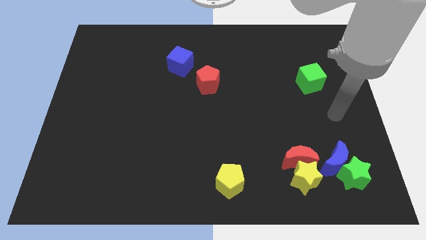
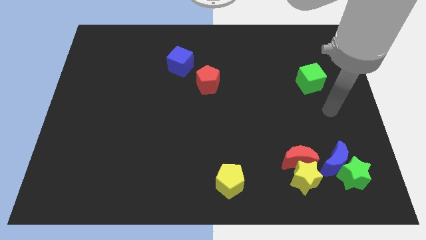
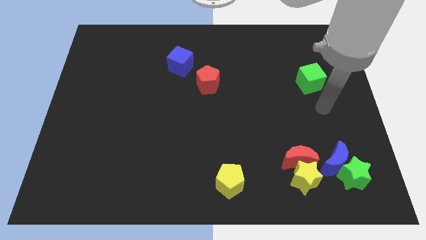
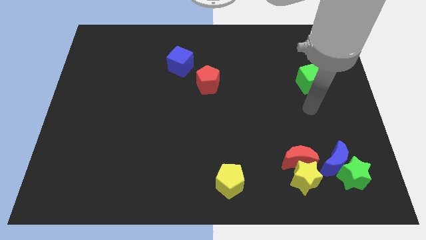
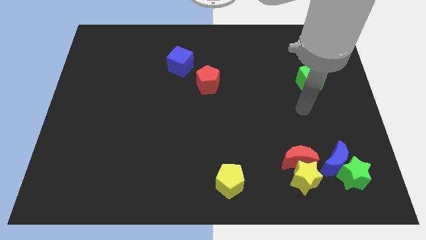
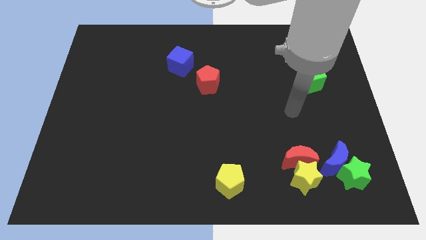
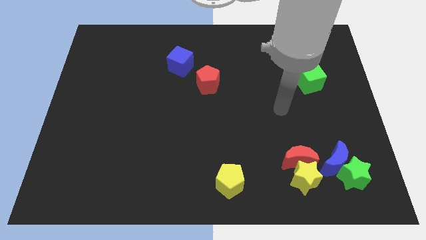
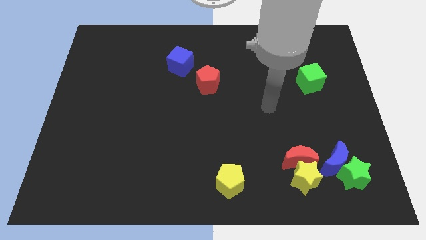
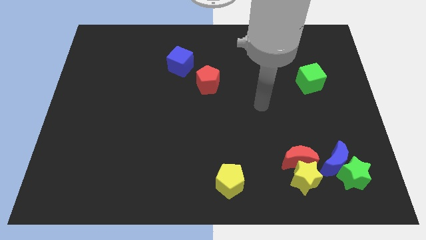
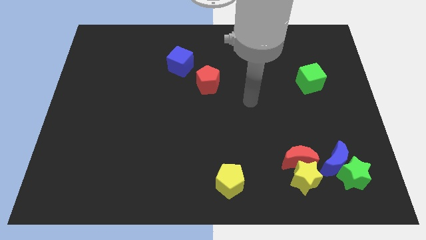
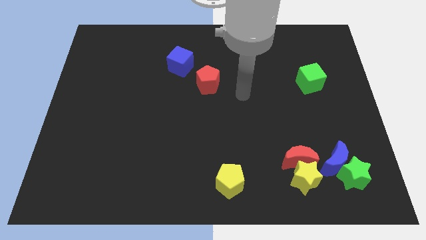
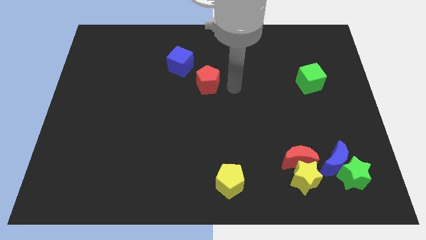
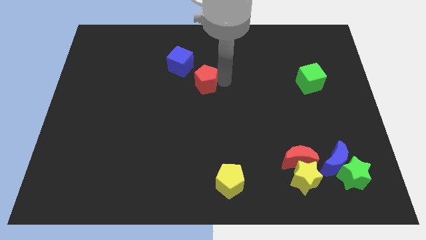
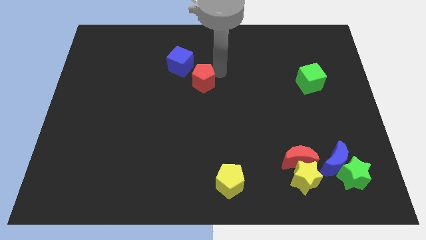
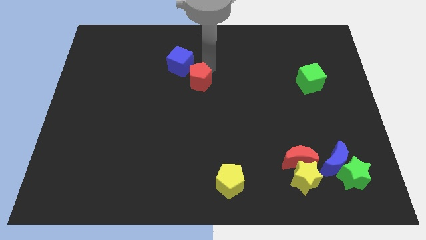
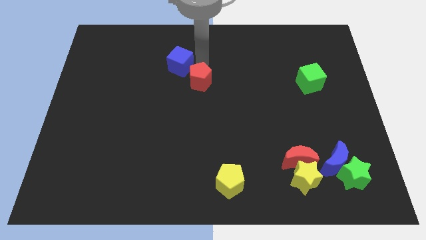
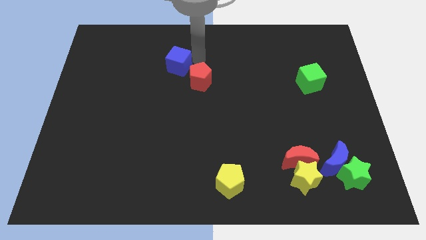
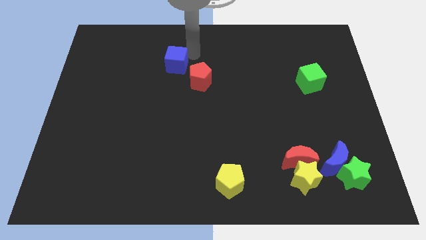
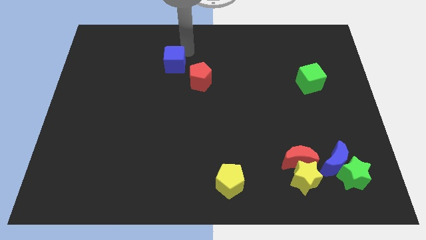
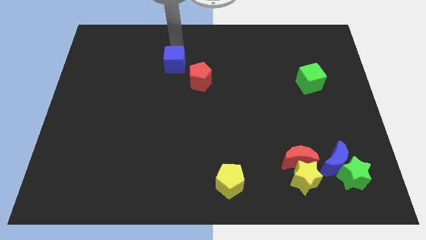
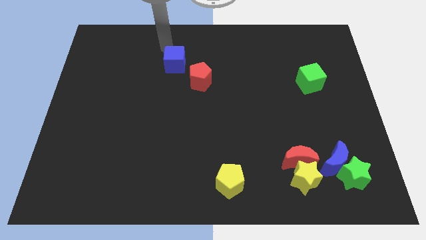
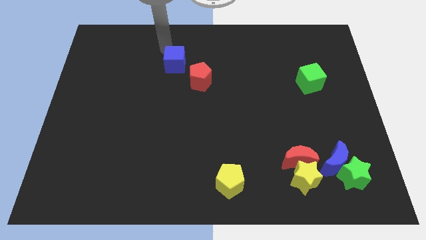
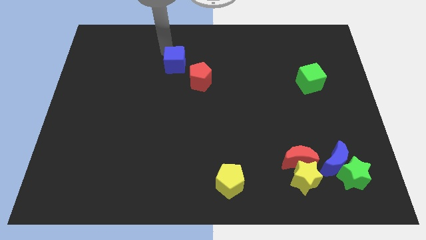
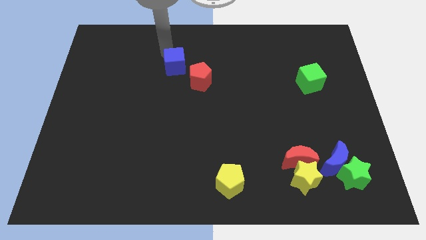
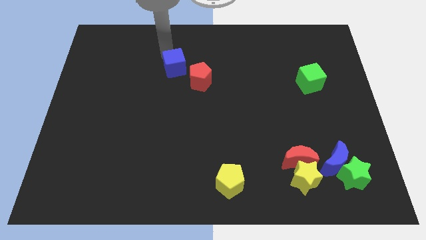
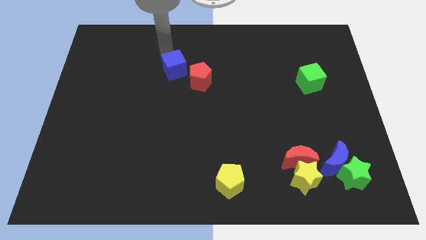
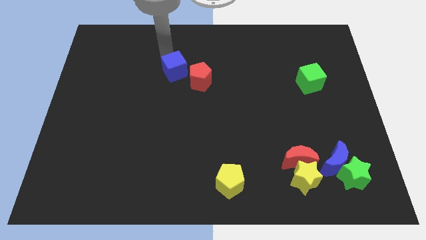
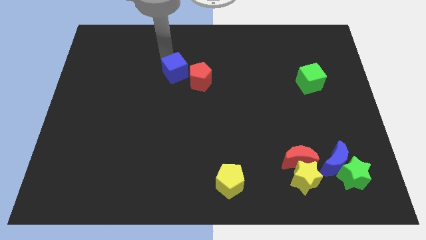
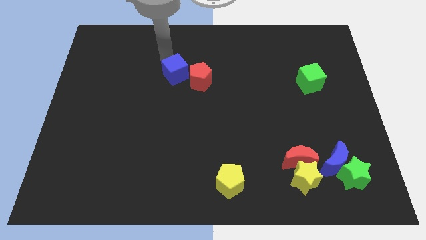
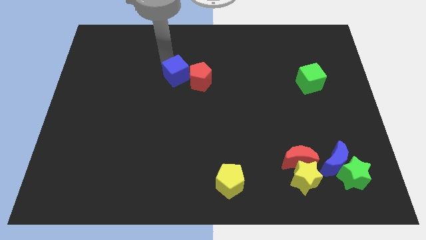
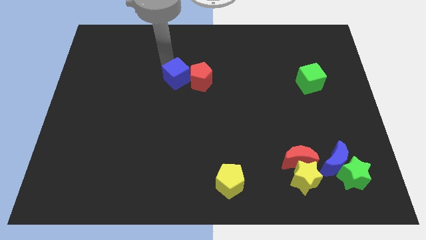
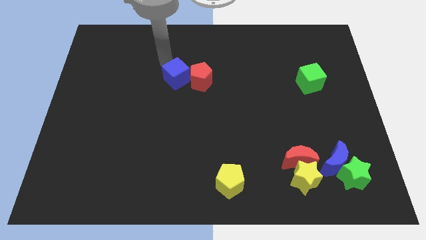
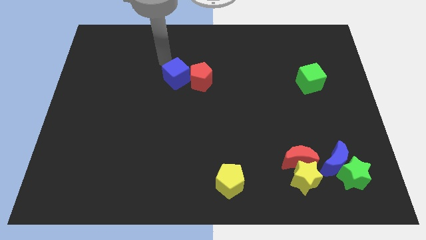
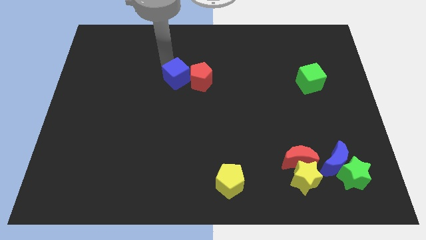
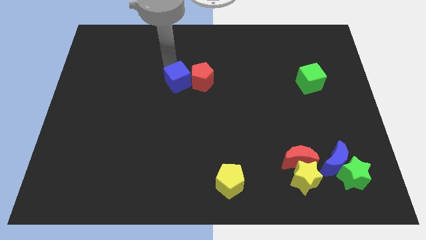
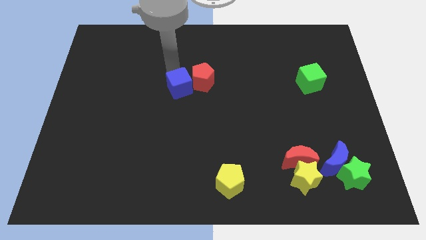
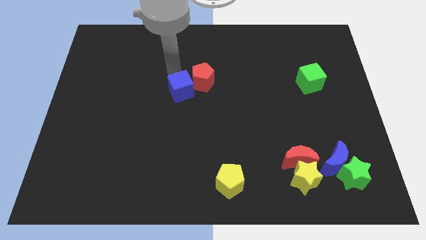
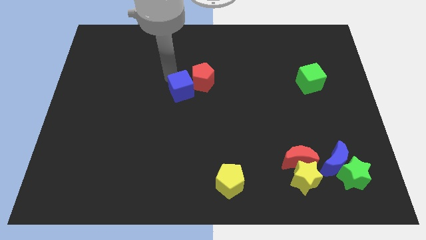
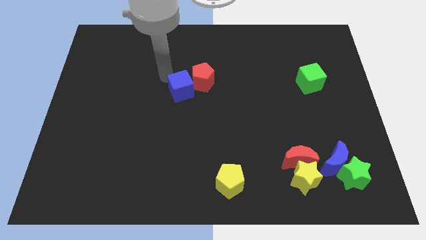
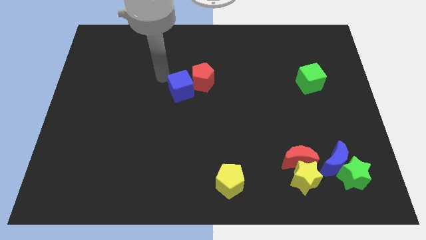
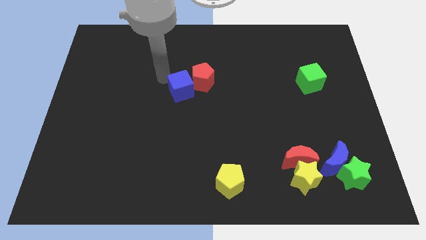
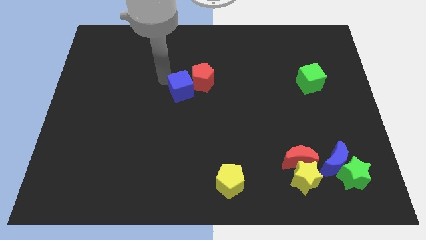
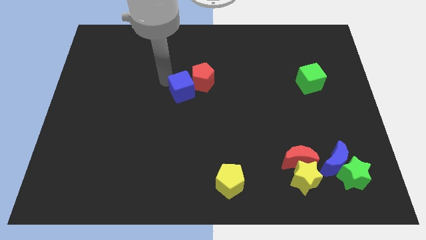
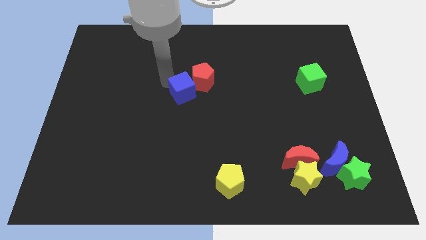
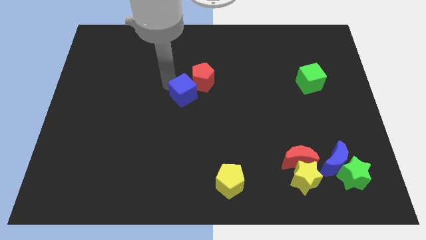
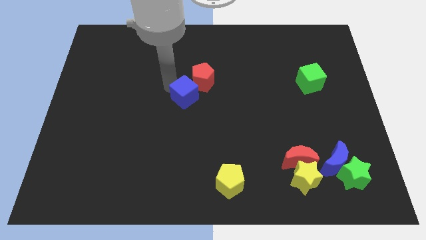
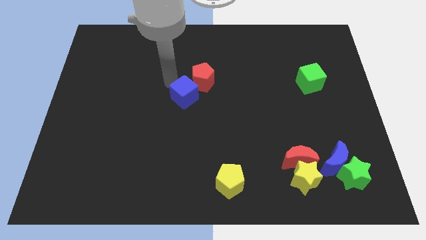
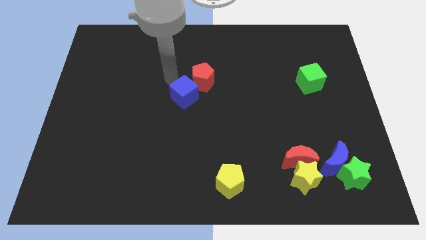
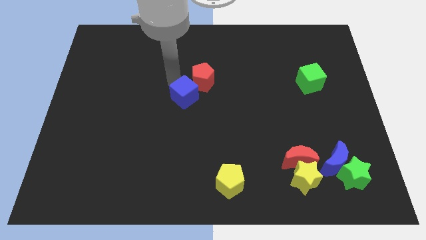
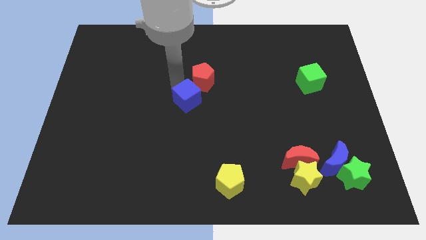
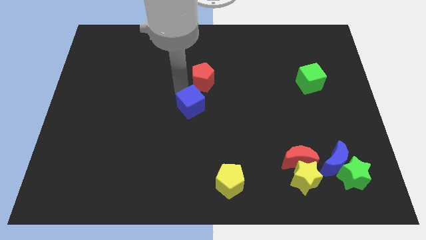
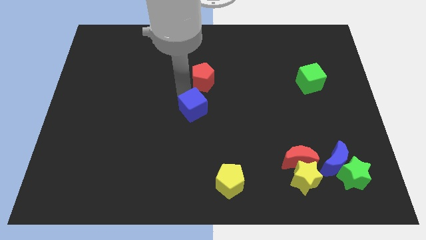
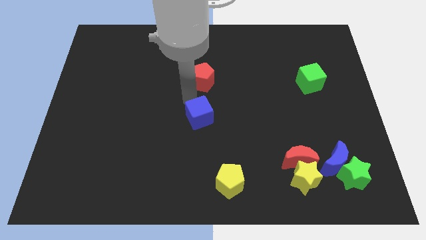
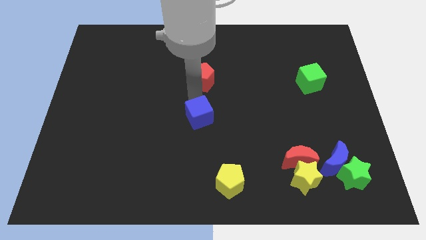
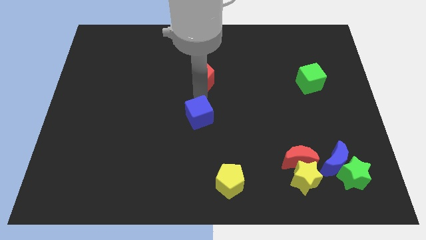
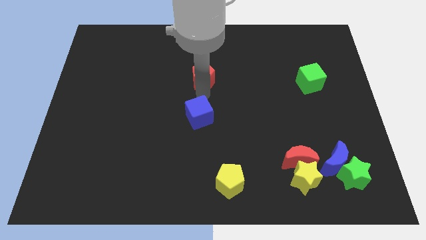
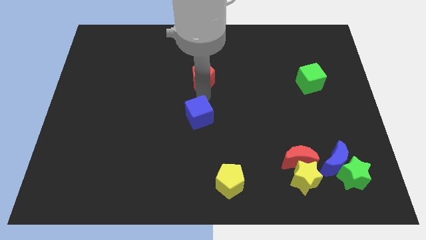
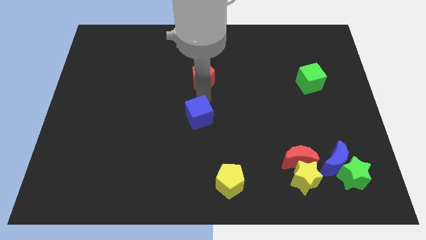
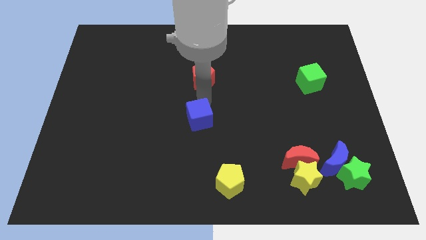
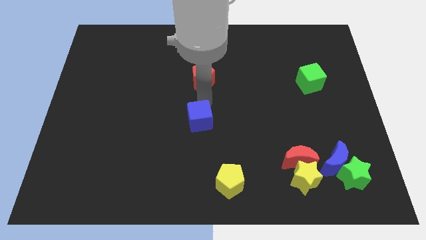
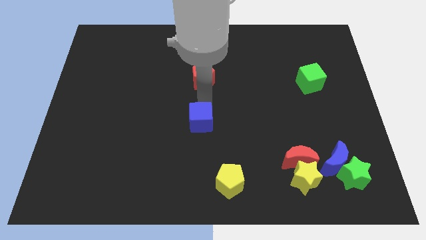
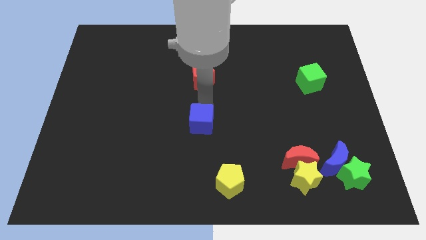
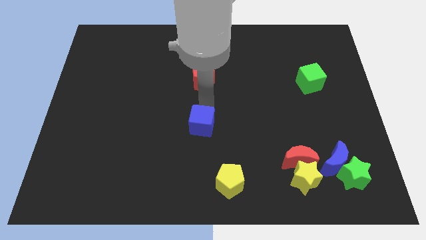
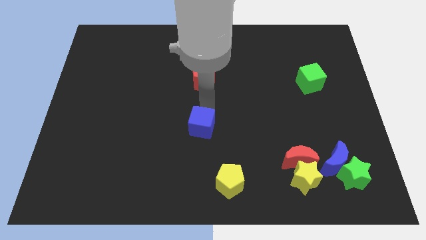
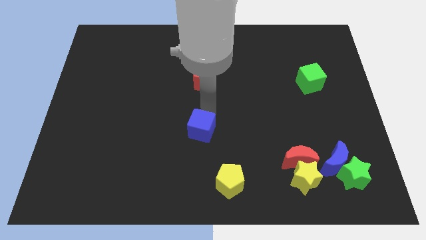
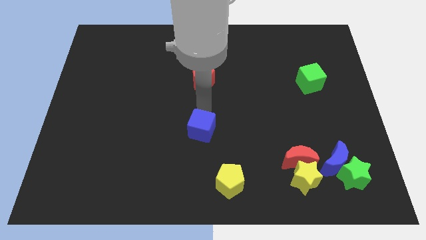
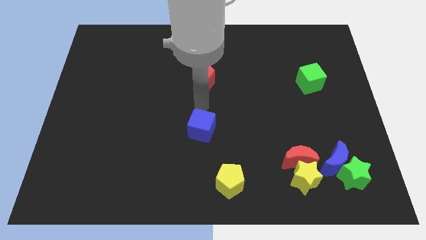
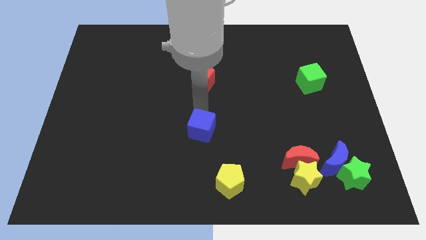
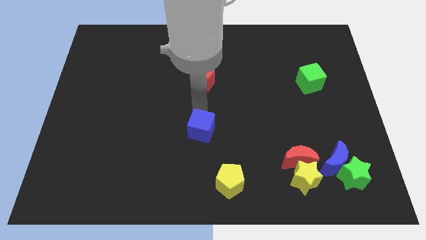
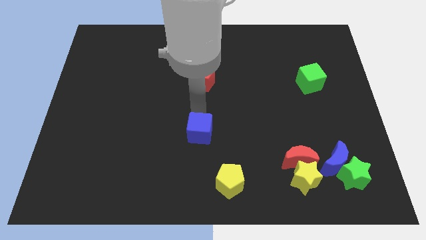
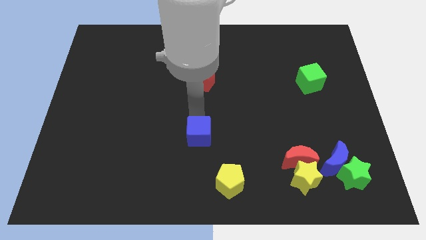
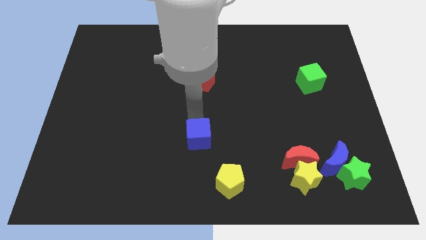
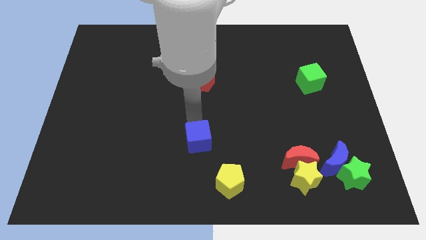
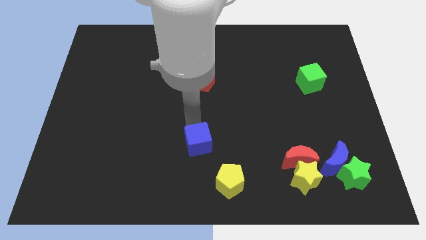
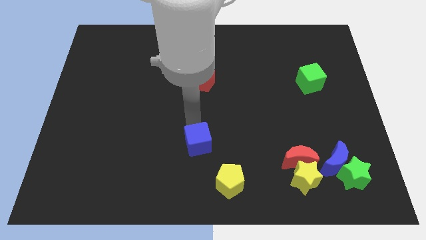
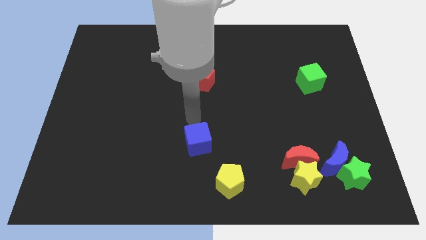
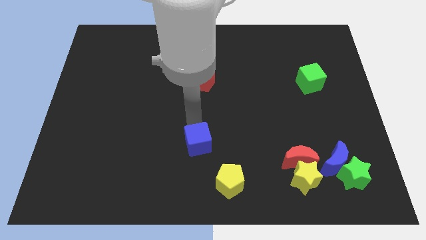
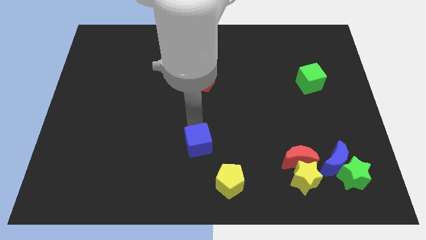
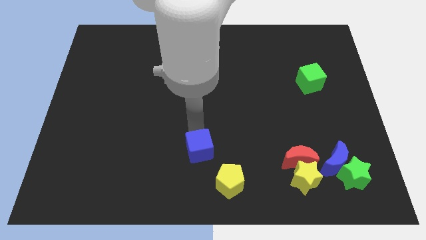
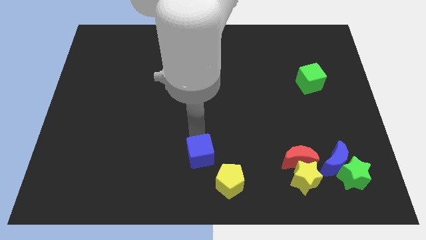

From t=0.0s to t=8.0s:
put the blue cube to the bottom
